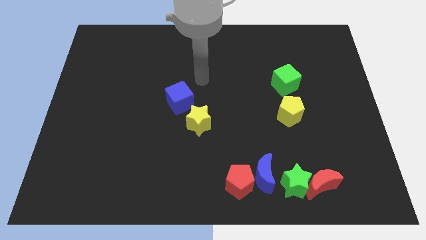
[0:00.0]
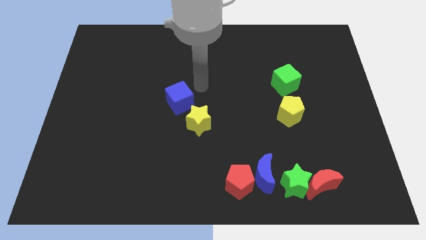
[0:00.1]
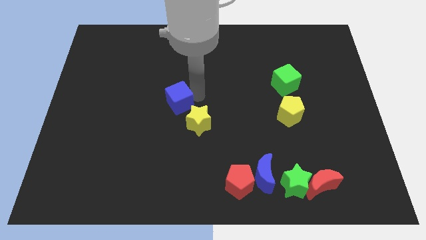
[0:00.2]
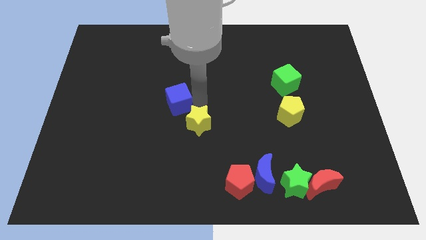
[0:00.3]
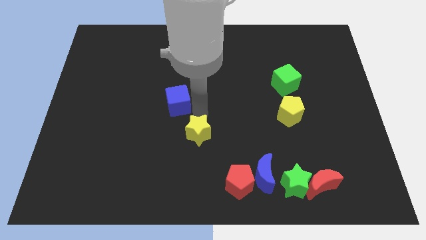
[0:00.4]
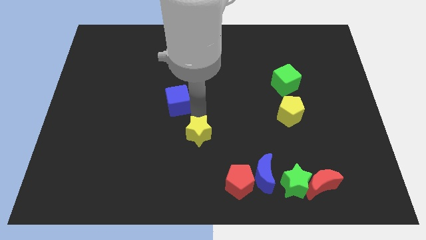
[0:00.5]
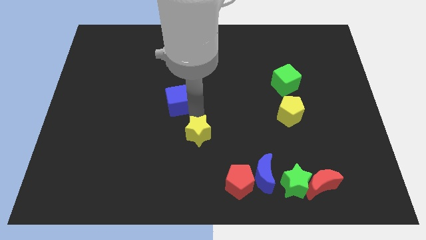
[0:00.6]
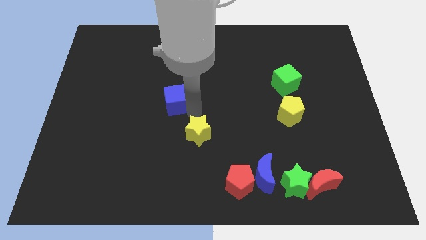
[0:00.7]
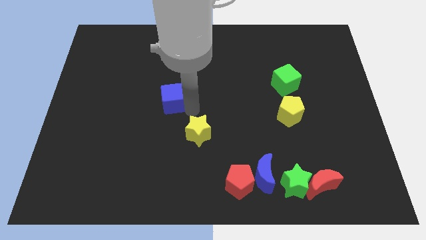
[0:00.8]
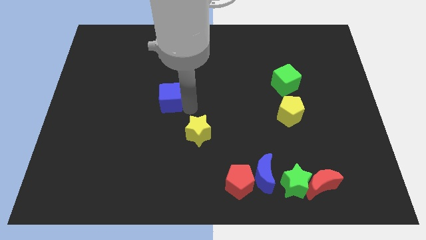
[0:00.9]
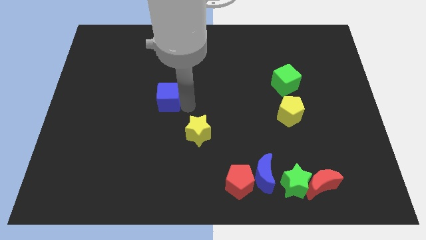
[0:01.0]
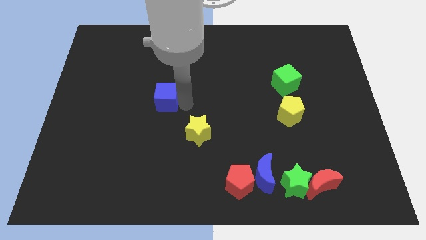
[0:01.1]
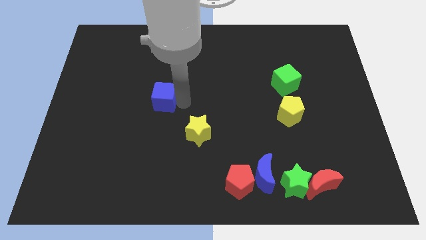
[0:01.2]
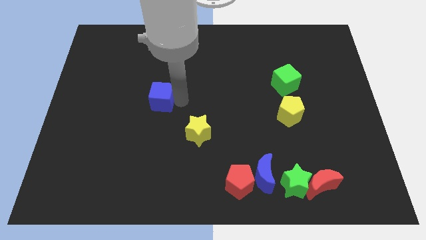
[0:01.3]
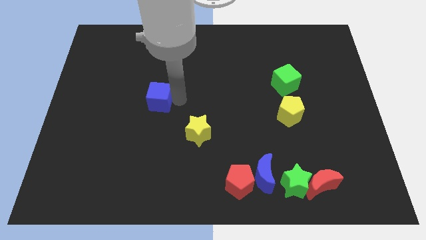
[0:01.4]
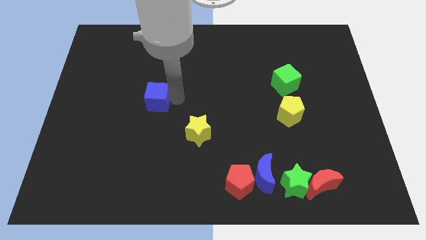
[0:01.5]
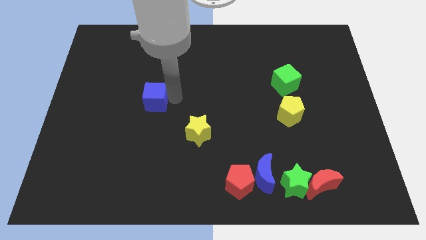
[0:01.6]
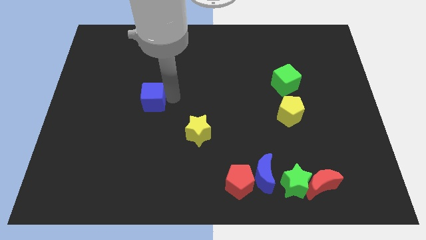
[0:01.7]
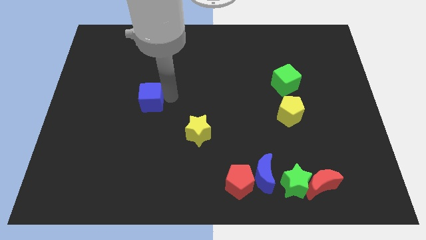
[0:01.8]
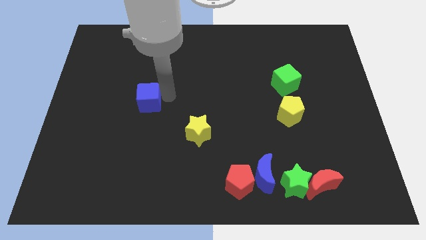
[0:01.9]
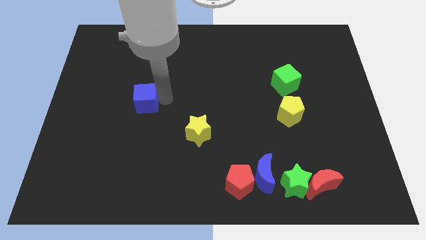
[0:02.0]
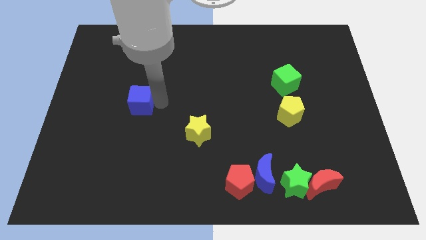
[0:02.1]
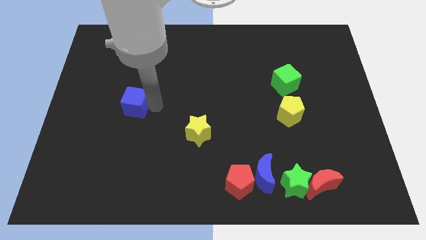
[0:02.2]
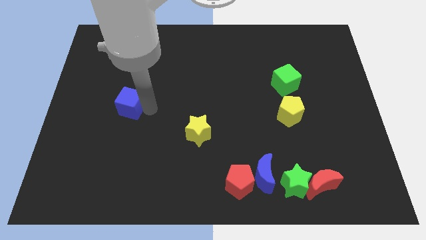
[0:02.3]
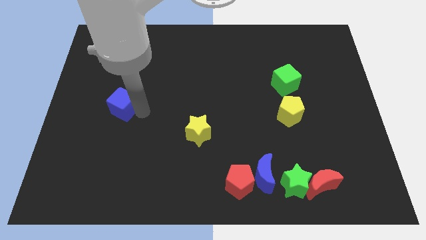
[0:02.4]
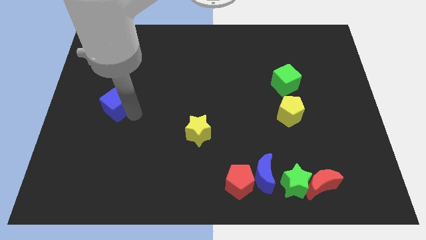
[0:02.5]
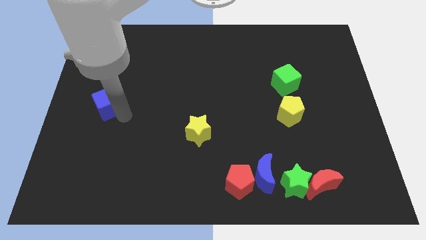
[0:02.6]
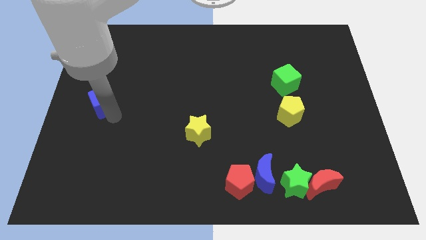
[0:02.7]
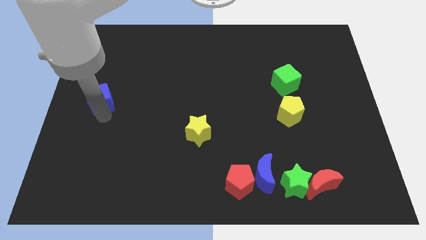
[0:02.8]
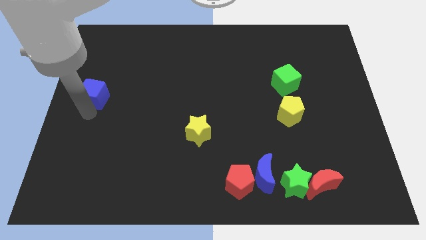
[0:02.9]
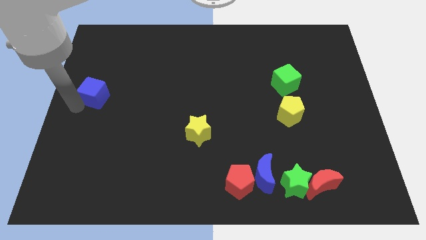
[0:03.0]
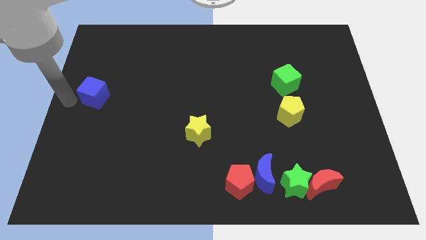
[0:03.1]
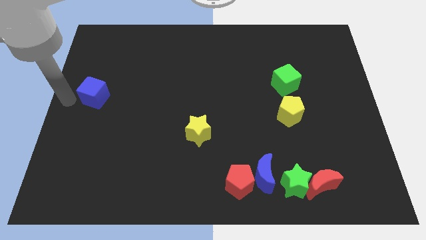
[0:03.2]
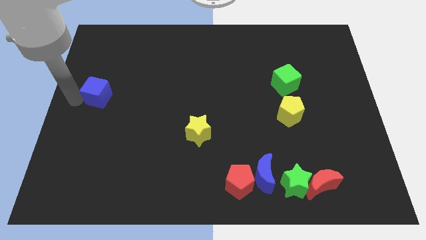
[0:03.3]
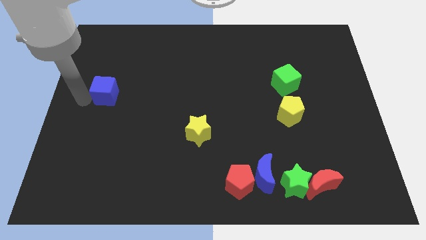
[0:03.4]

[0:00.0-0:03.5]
slightly push the blue cube diagonally up and left

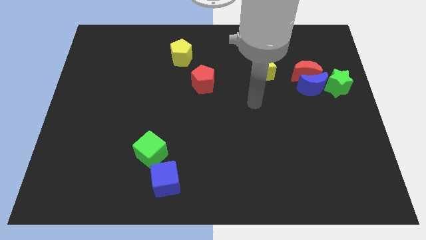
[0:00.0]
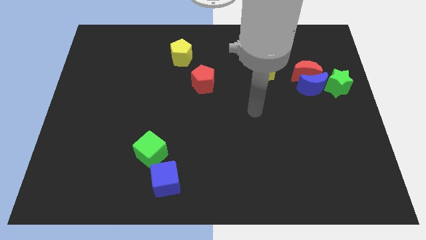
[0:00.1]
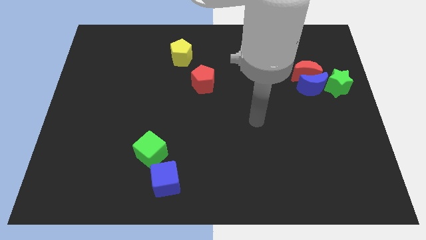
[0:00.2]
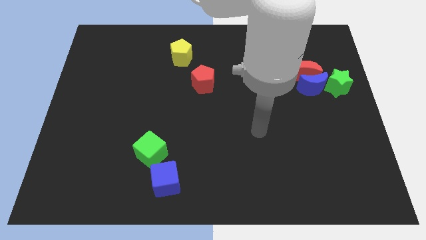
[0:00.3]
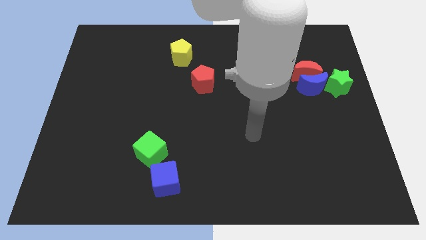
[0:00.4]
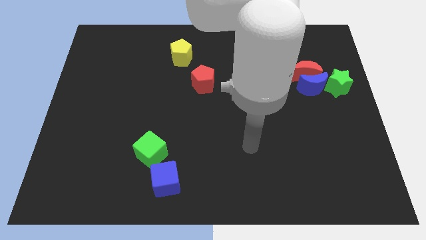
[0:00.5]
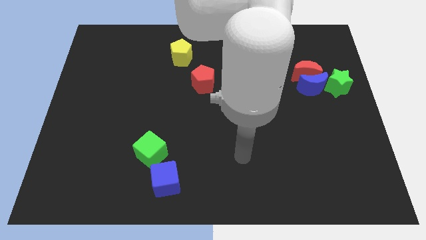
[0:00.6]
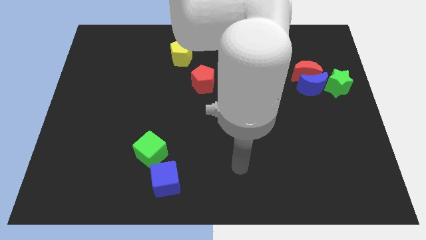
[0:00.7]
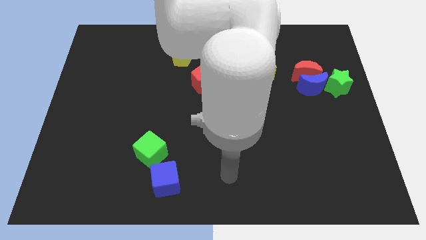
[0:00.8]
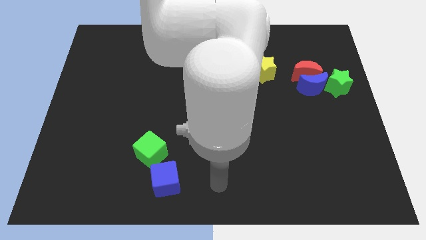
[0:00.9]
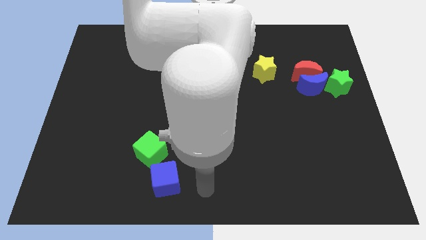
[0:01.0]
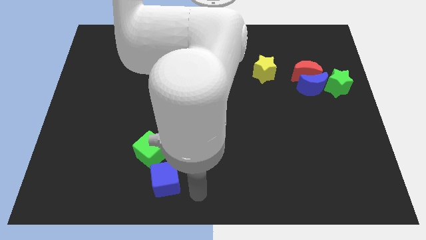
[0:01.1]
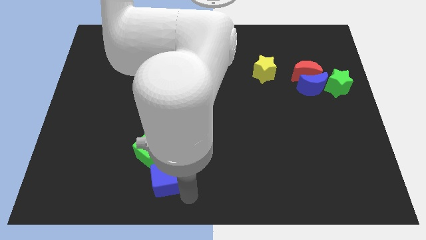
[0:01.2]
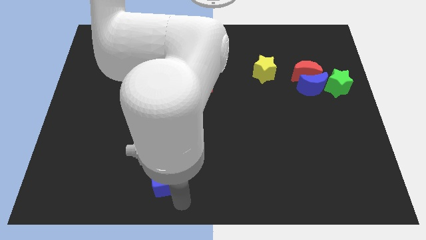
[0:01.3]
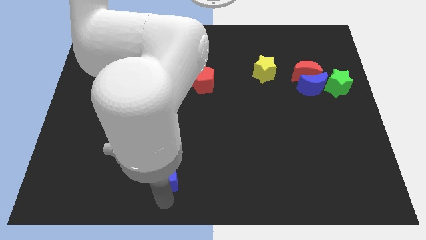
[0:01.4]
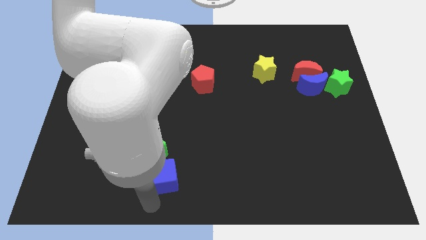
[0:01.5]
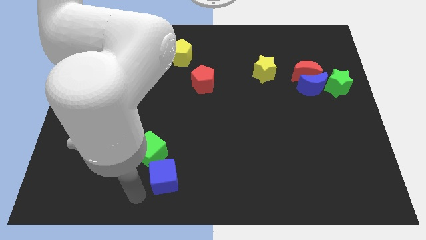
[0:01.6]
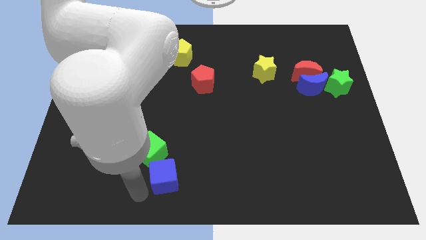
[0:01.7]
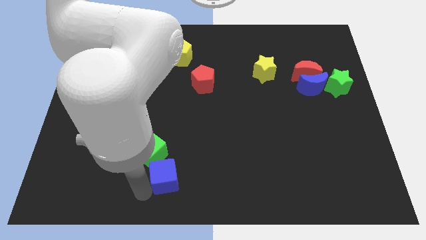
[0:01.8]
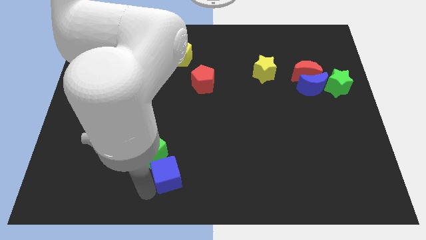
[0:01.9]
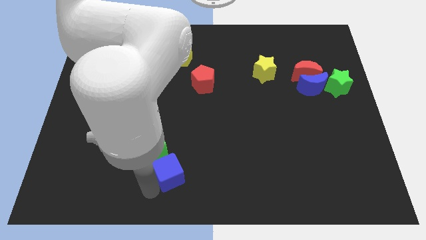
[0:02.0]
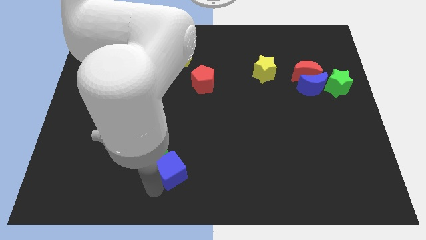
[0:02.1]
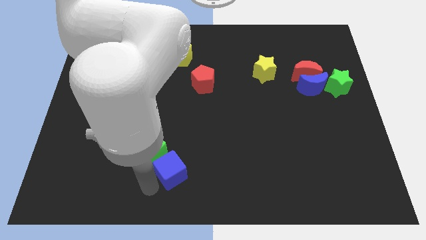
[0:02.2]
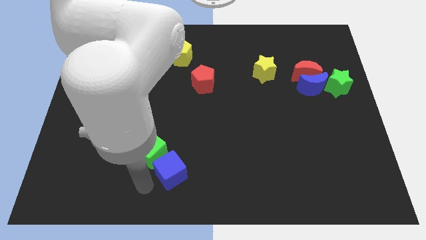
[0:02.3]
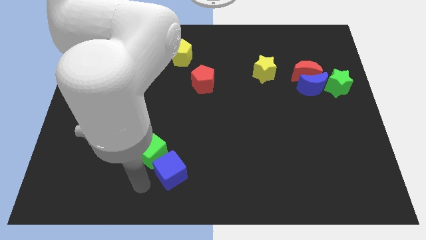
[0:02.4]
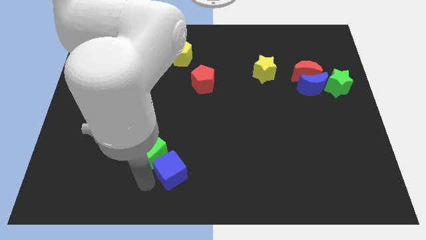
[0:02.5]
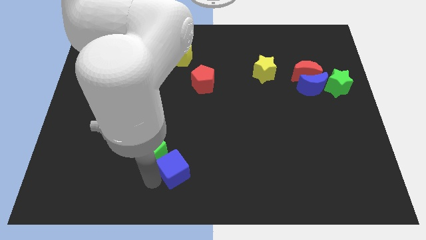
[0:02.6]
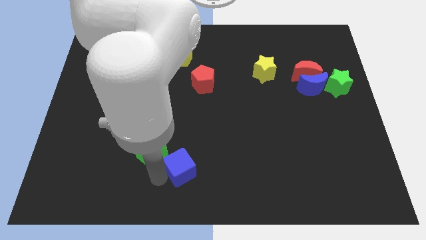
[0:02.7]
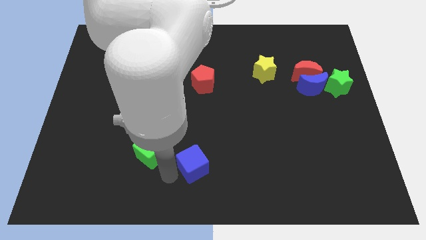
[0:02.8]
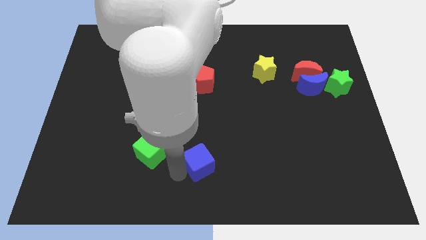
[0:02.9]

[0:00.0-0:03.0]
slide the blue cube up and right a little bit

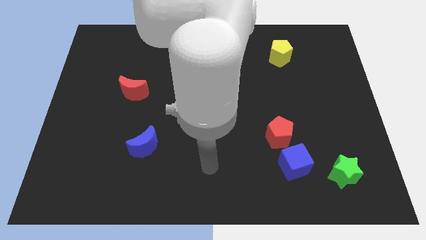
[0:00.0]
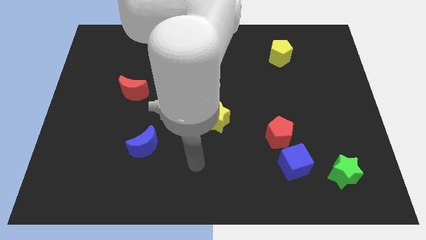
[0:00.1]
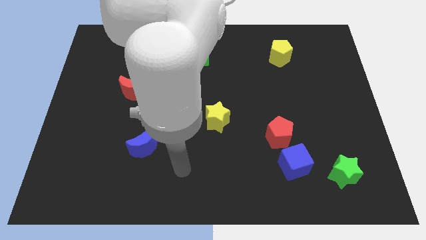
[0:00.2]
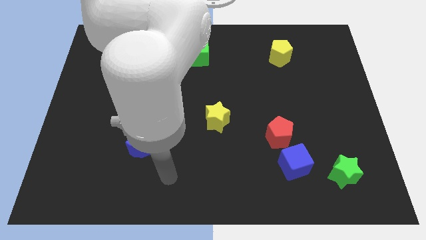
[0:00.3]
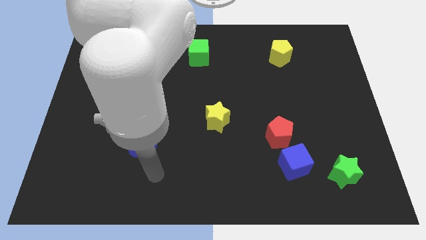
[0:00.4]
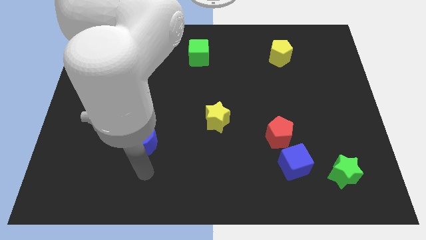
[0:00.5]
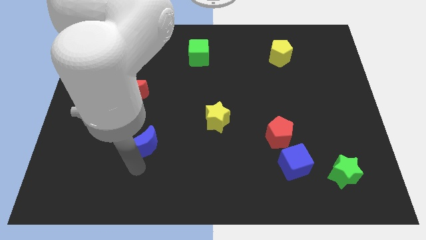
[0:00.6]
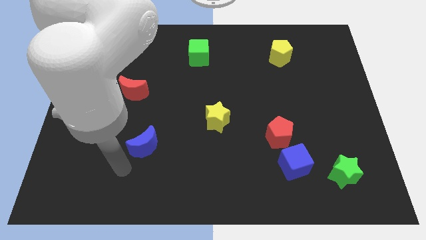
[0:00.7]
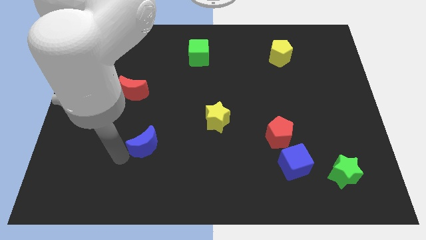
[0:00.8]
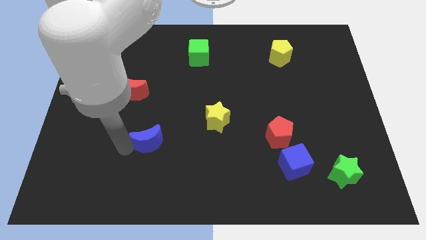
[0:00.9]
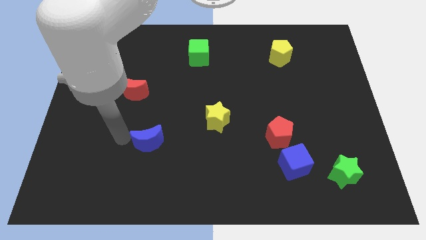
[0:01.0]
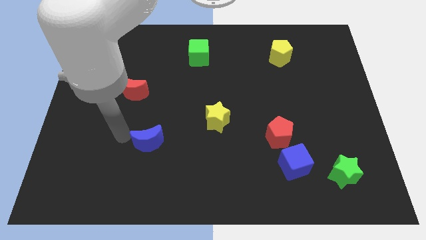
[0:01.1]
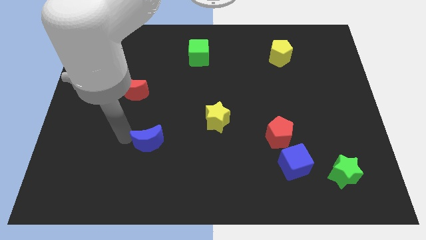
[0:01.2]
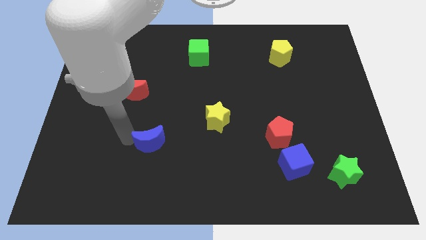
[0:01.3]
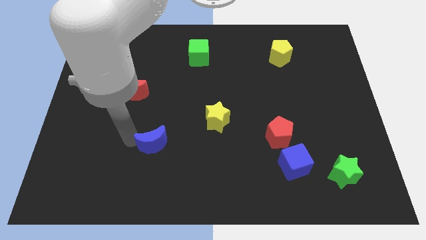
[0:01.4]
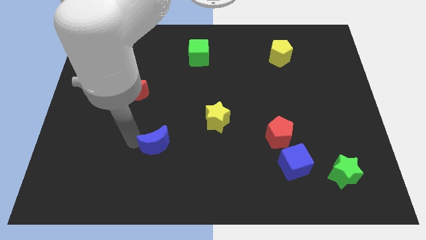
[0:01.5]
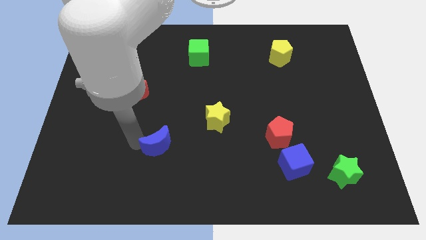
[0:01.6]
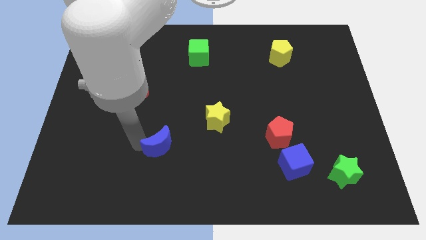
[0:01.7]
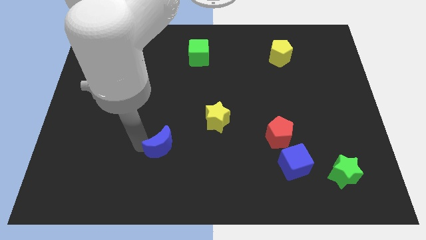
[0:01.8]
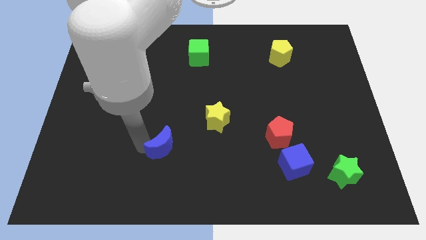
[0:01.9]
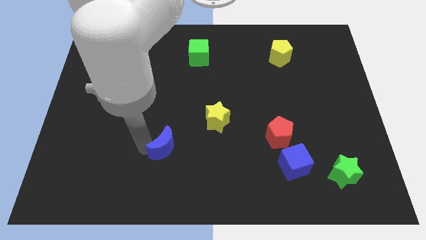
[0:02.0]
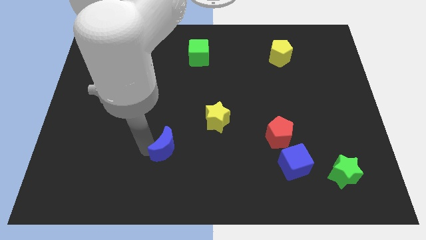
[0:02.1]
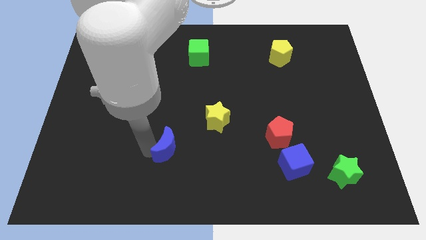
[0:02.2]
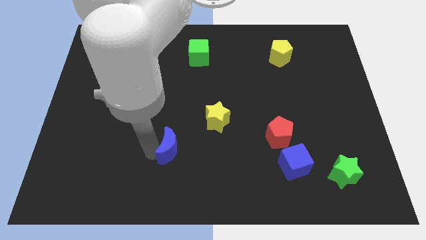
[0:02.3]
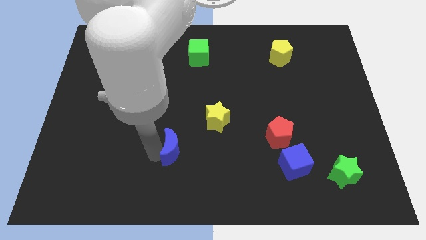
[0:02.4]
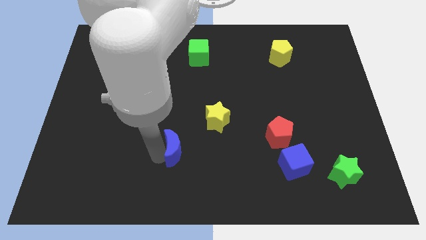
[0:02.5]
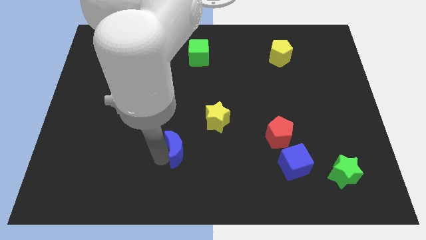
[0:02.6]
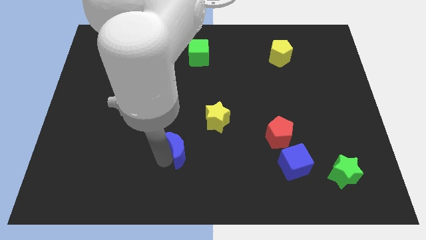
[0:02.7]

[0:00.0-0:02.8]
push the blue moon right somewhat
